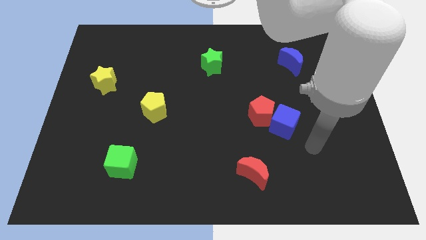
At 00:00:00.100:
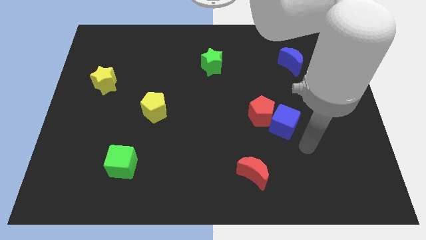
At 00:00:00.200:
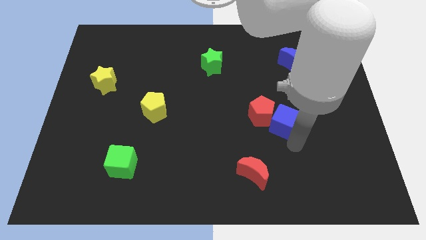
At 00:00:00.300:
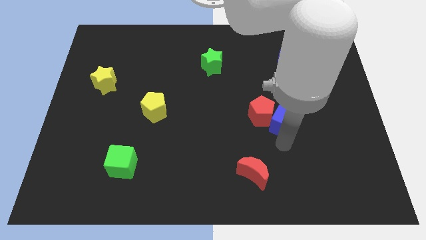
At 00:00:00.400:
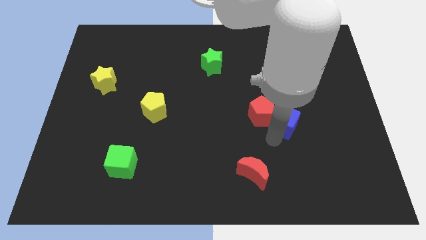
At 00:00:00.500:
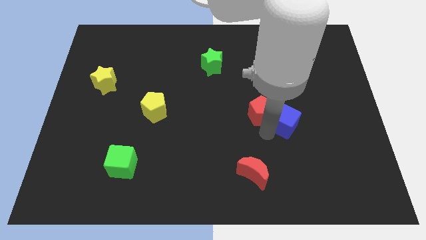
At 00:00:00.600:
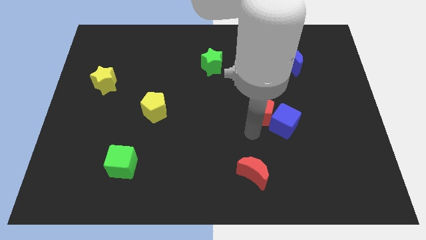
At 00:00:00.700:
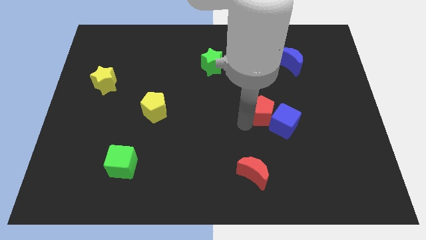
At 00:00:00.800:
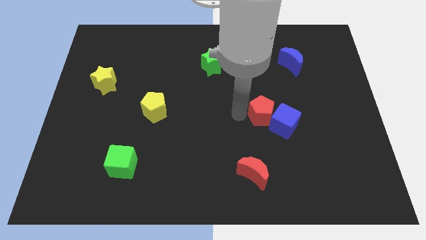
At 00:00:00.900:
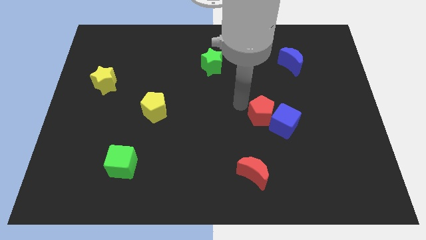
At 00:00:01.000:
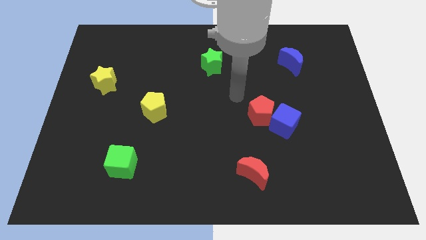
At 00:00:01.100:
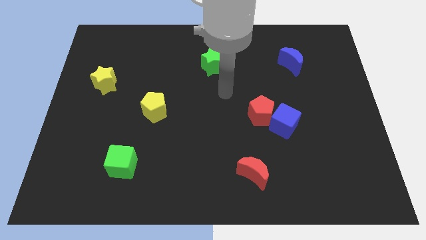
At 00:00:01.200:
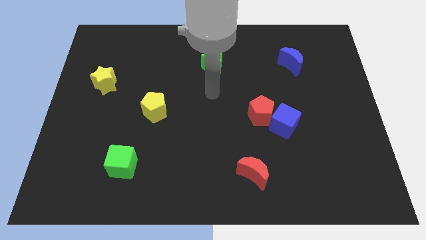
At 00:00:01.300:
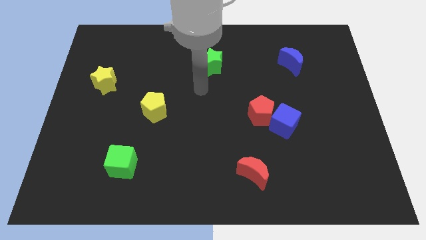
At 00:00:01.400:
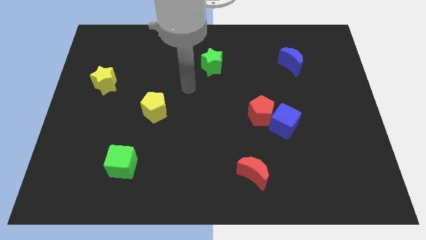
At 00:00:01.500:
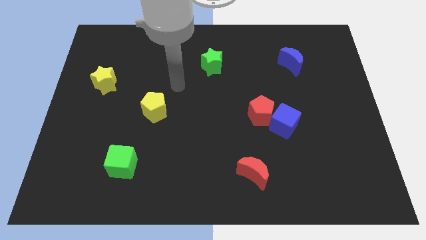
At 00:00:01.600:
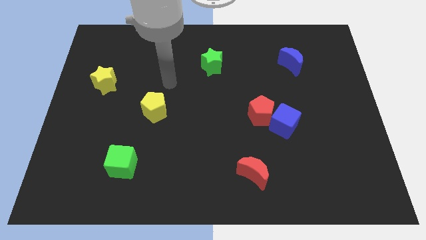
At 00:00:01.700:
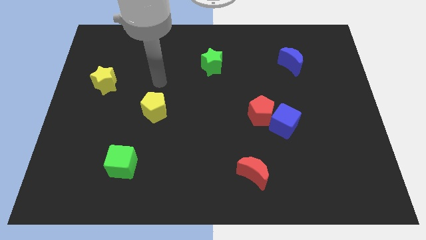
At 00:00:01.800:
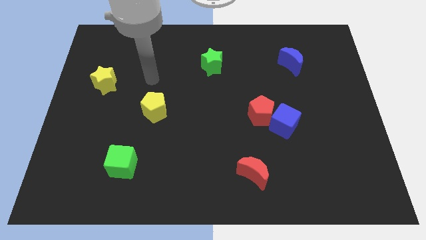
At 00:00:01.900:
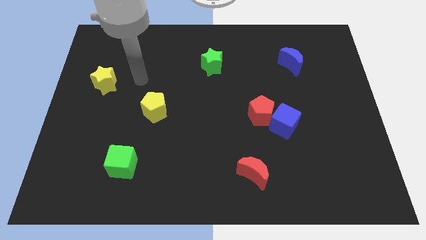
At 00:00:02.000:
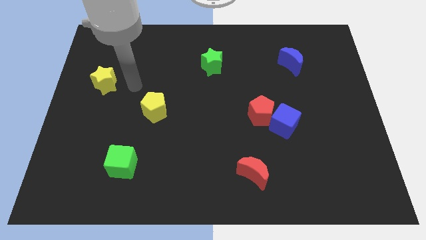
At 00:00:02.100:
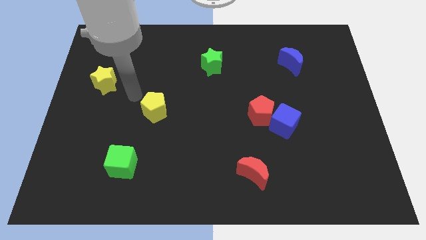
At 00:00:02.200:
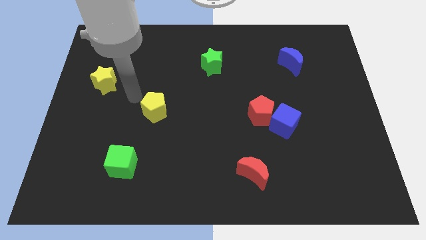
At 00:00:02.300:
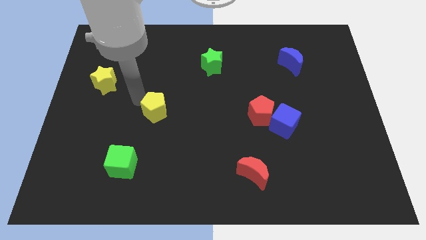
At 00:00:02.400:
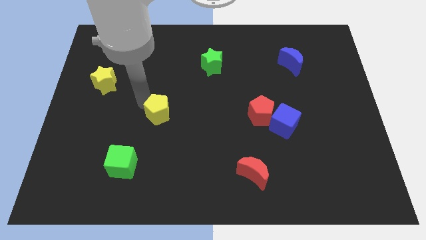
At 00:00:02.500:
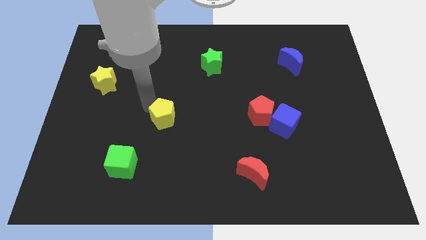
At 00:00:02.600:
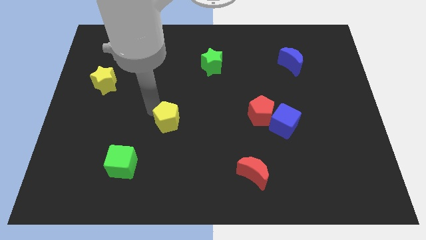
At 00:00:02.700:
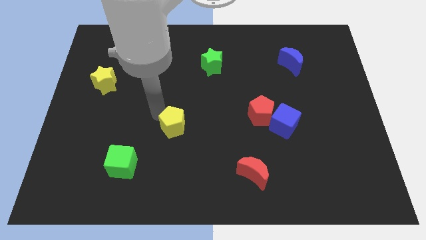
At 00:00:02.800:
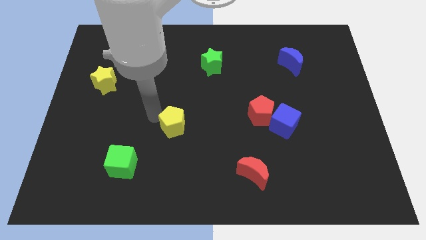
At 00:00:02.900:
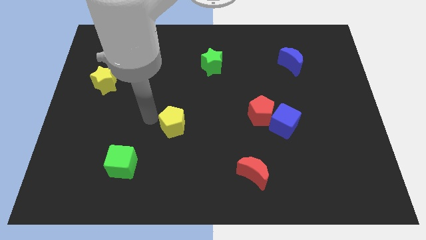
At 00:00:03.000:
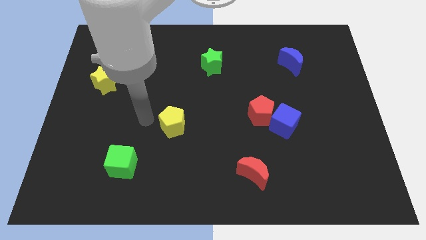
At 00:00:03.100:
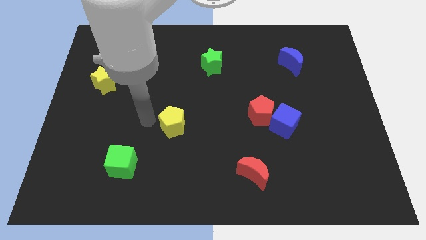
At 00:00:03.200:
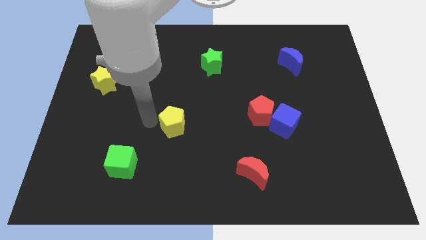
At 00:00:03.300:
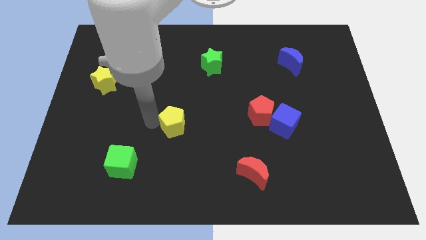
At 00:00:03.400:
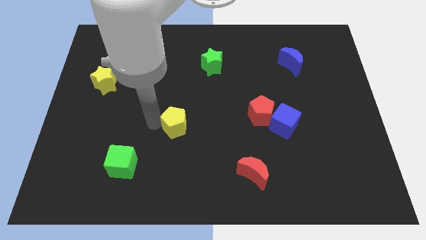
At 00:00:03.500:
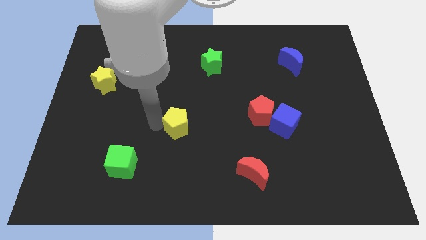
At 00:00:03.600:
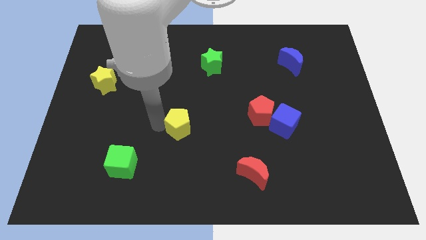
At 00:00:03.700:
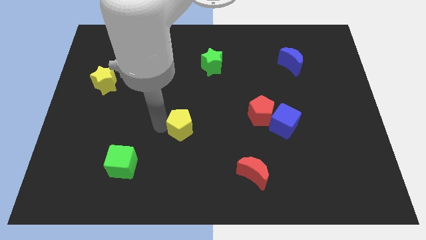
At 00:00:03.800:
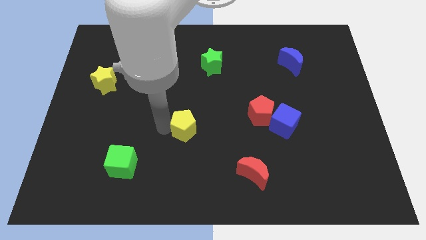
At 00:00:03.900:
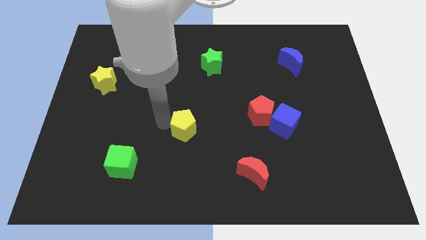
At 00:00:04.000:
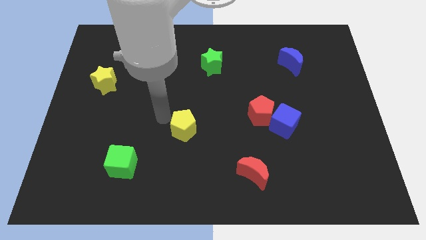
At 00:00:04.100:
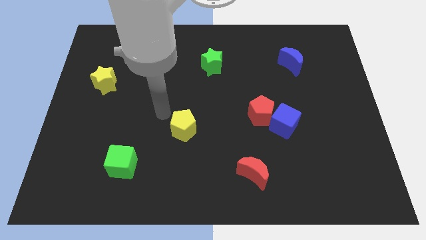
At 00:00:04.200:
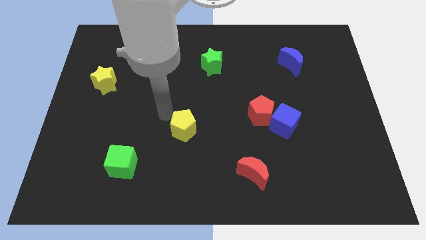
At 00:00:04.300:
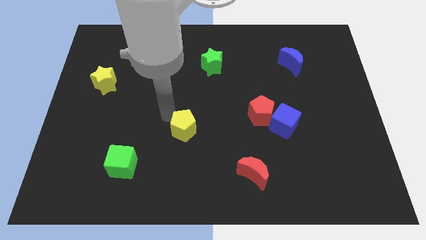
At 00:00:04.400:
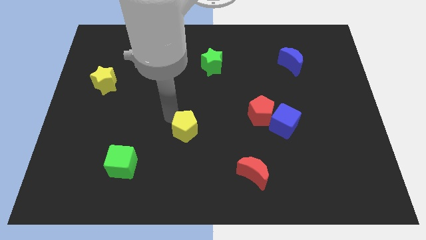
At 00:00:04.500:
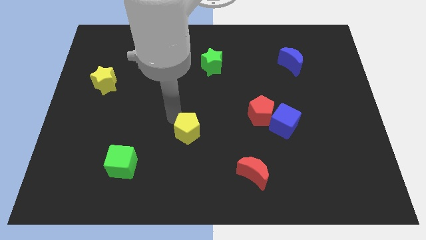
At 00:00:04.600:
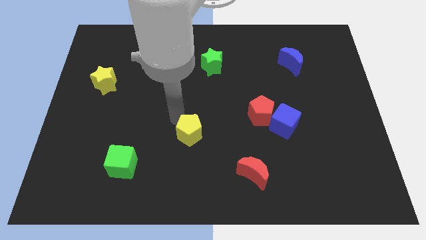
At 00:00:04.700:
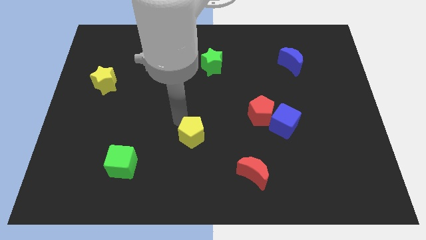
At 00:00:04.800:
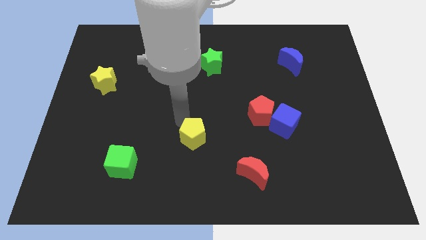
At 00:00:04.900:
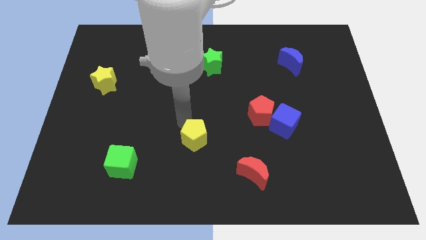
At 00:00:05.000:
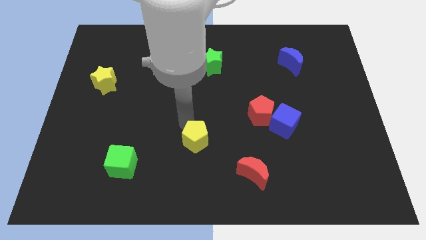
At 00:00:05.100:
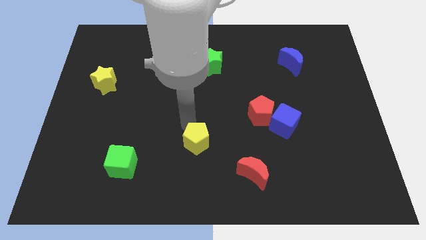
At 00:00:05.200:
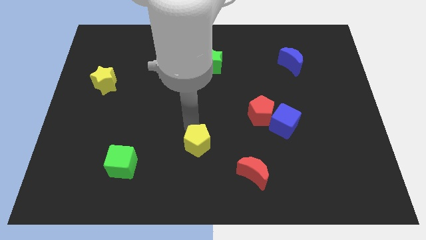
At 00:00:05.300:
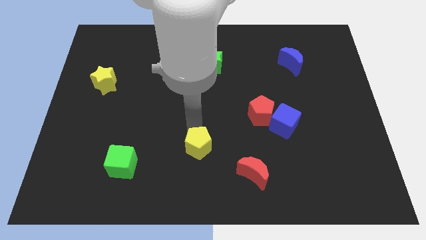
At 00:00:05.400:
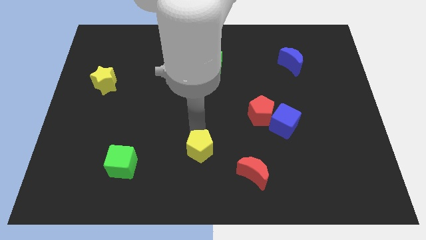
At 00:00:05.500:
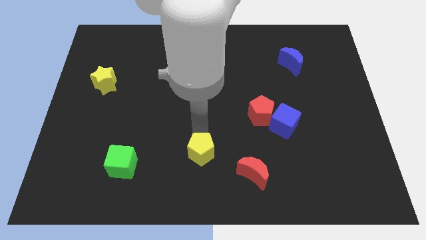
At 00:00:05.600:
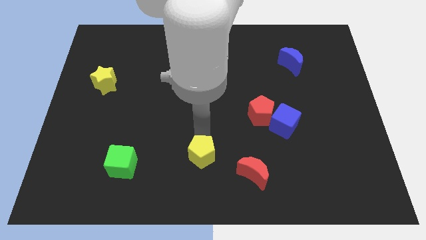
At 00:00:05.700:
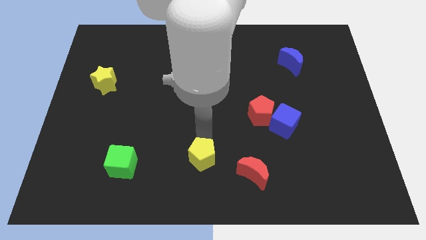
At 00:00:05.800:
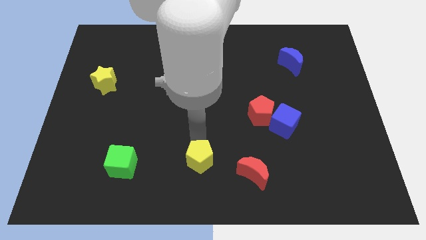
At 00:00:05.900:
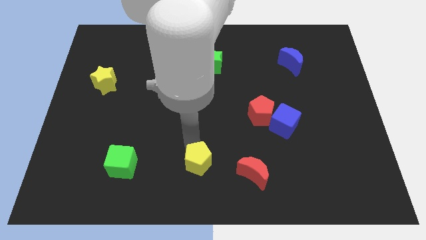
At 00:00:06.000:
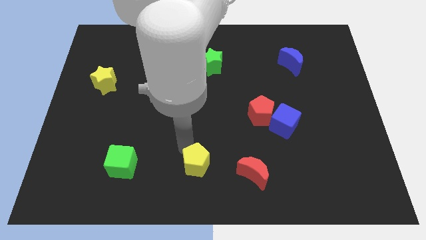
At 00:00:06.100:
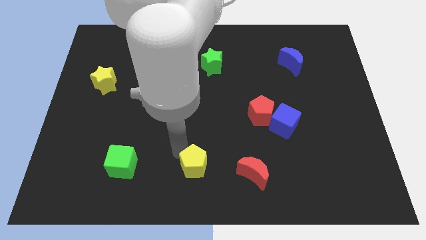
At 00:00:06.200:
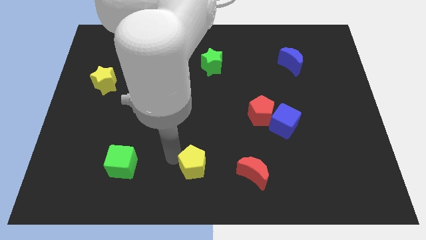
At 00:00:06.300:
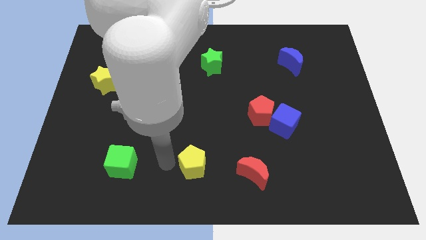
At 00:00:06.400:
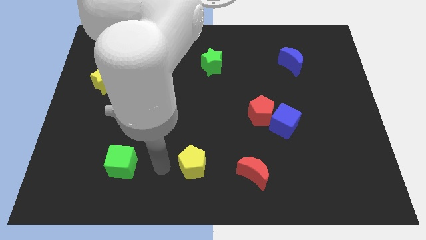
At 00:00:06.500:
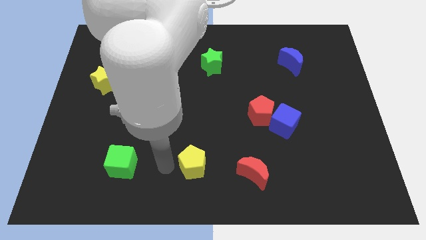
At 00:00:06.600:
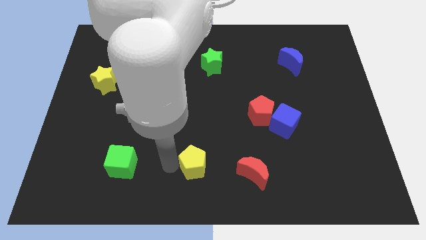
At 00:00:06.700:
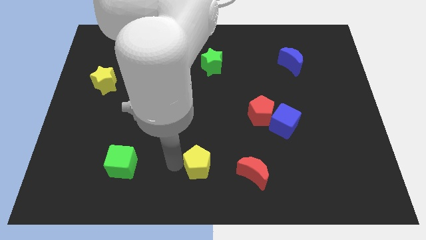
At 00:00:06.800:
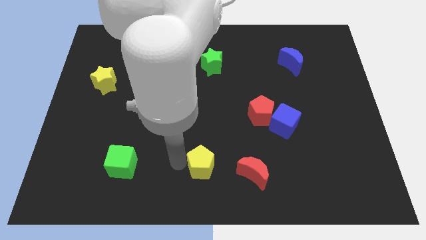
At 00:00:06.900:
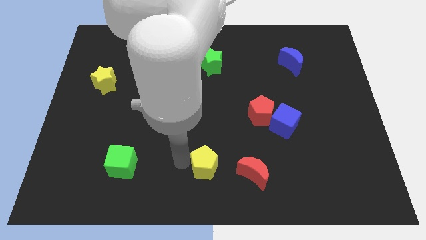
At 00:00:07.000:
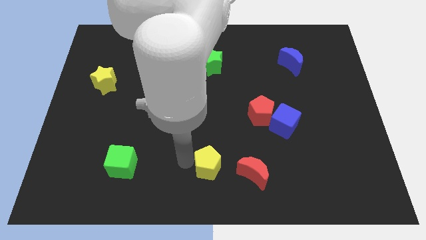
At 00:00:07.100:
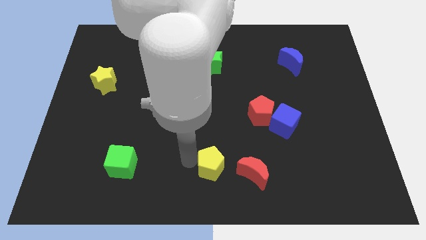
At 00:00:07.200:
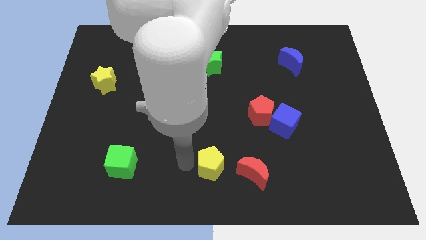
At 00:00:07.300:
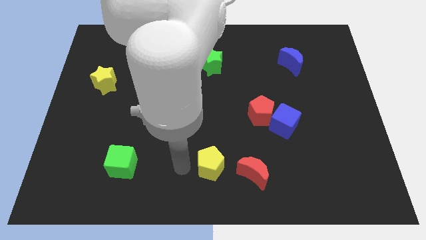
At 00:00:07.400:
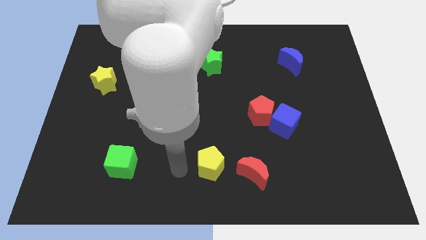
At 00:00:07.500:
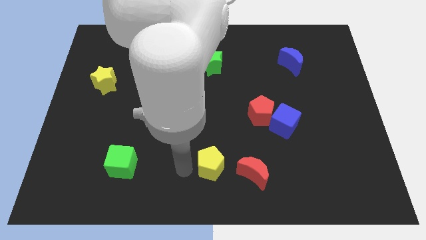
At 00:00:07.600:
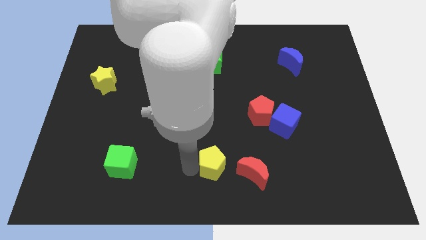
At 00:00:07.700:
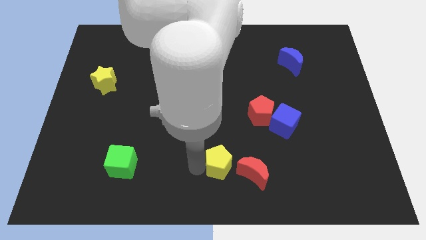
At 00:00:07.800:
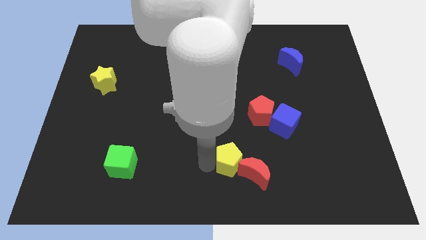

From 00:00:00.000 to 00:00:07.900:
slide the yellow pentagon close to the red moon
